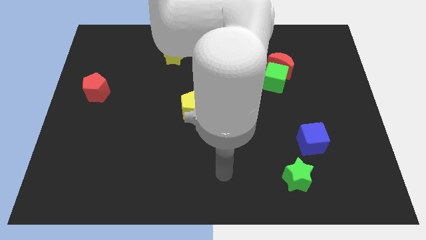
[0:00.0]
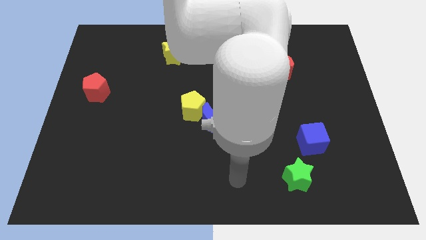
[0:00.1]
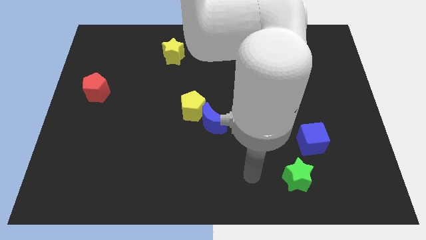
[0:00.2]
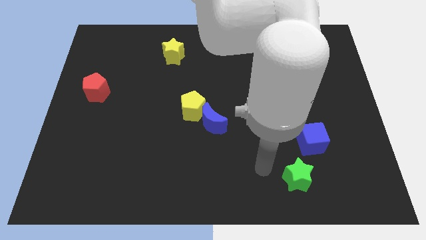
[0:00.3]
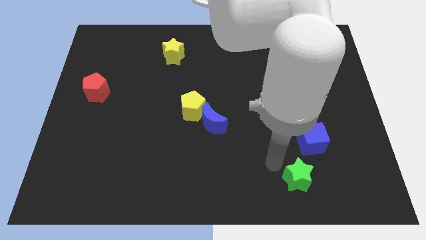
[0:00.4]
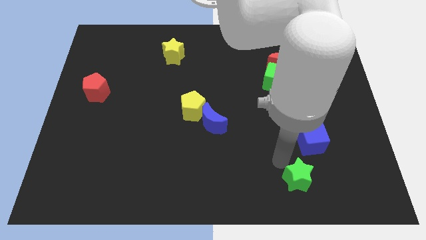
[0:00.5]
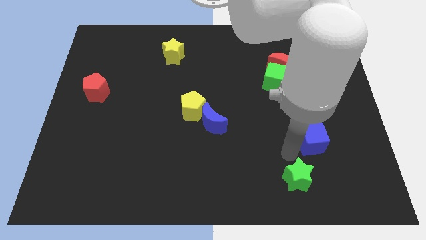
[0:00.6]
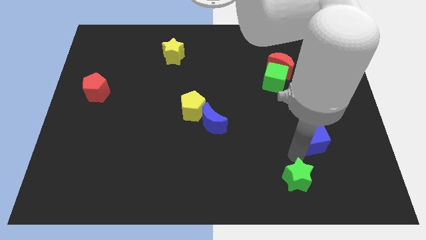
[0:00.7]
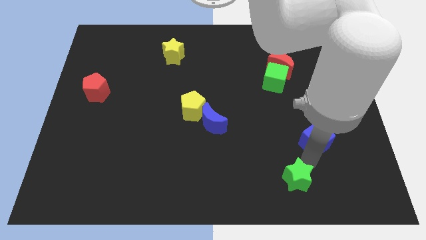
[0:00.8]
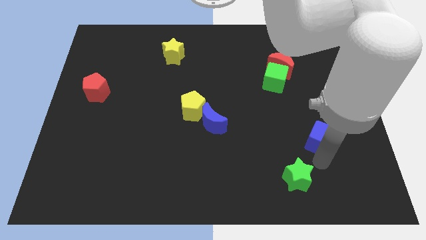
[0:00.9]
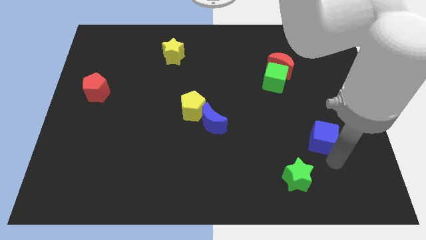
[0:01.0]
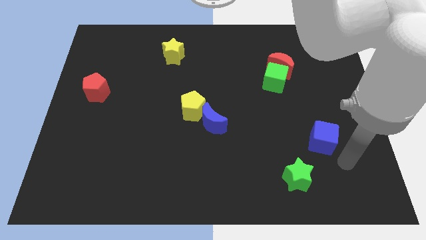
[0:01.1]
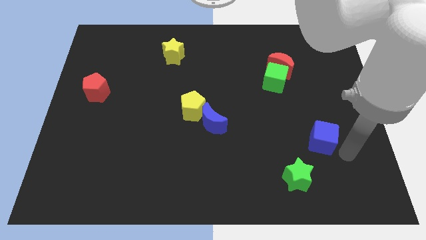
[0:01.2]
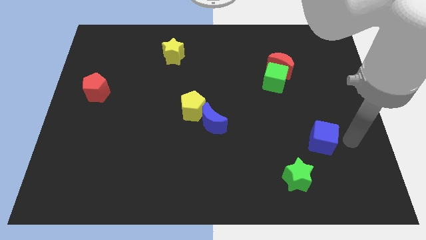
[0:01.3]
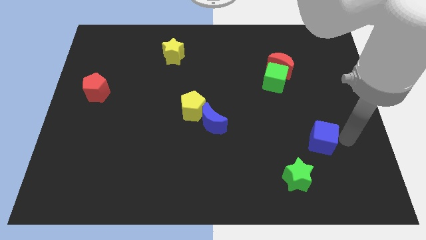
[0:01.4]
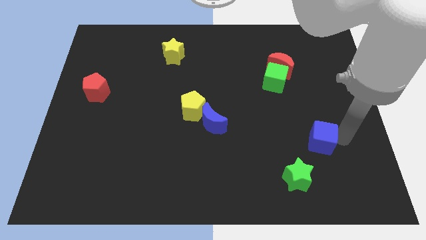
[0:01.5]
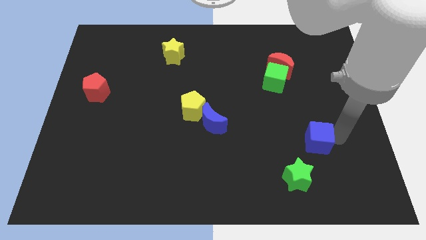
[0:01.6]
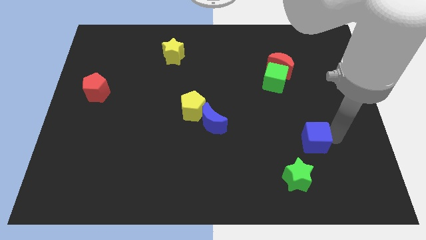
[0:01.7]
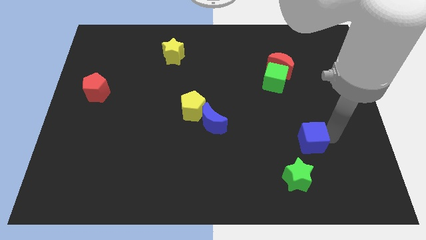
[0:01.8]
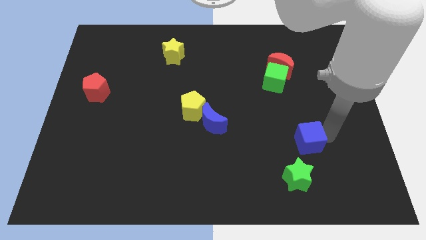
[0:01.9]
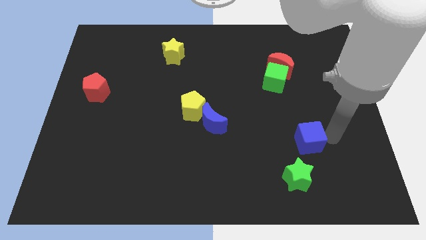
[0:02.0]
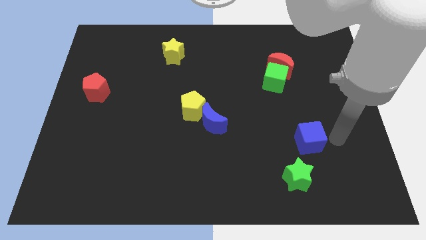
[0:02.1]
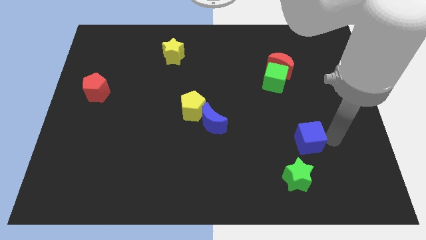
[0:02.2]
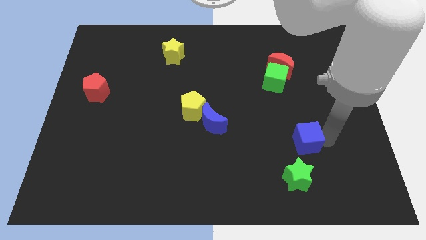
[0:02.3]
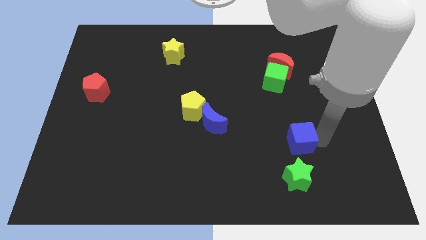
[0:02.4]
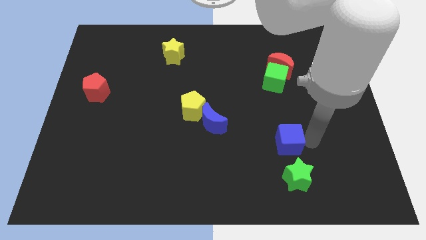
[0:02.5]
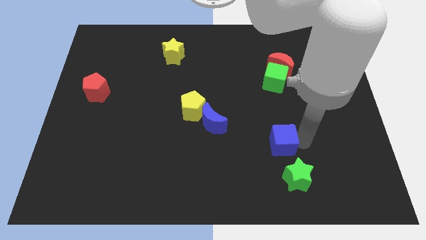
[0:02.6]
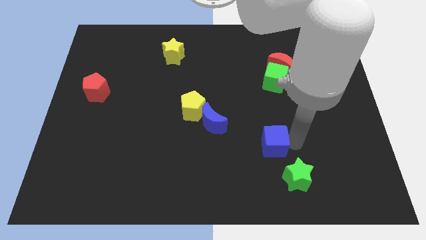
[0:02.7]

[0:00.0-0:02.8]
move the blue cube a bit to the left

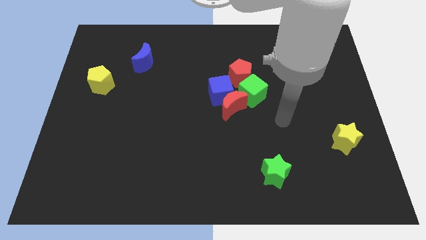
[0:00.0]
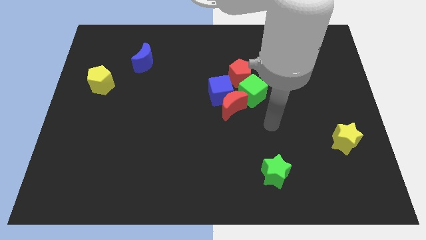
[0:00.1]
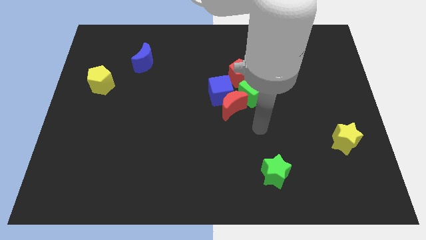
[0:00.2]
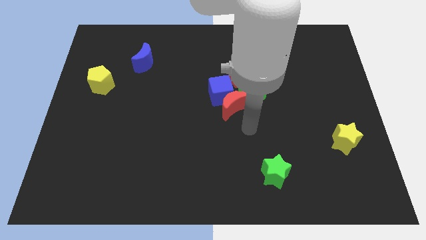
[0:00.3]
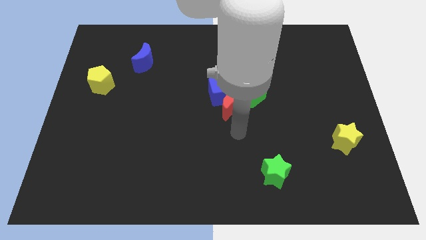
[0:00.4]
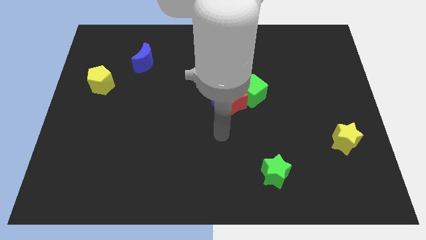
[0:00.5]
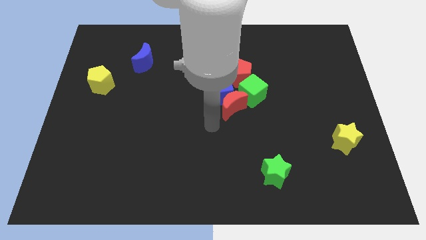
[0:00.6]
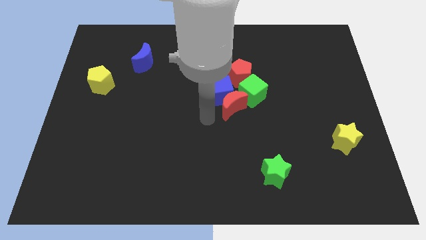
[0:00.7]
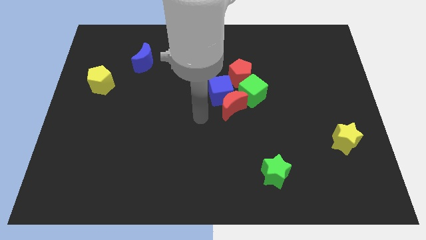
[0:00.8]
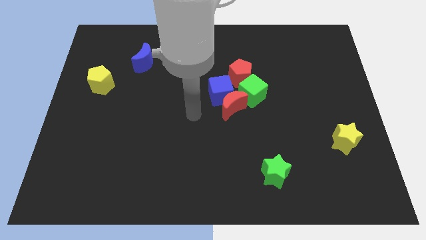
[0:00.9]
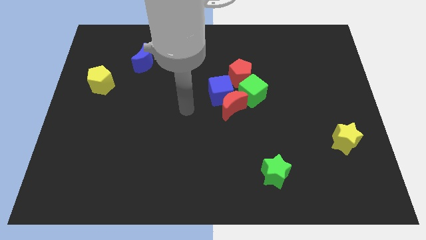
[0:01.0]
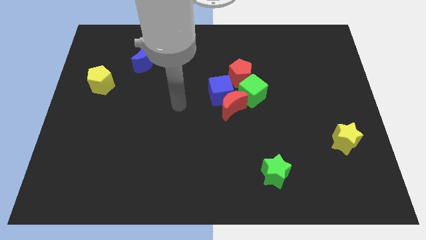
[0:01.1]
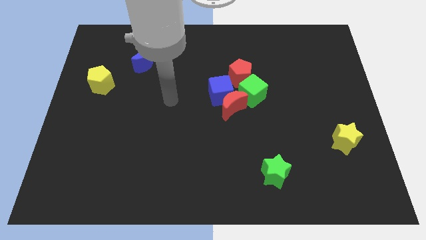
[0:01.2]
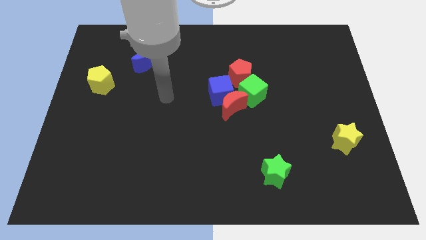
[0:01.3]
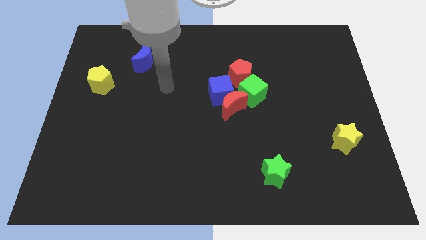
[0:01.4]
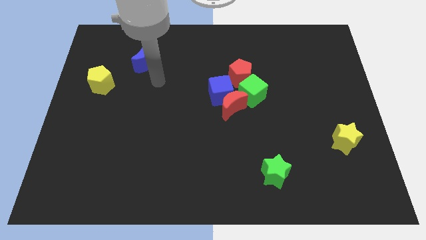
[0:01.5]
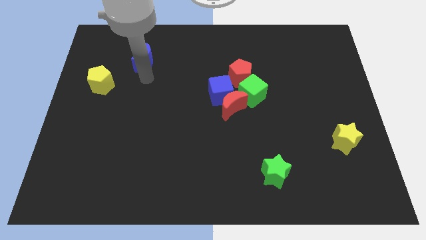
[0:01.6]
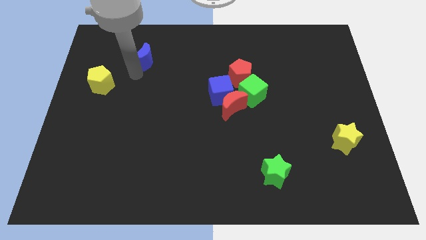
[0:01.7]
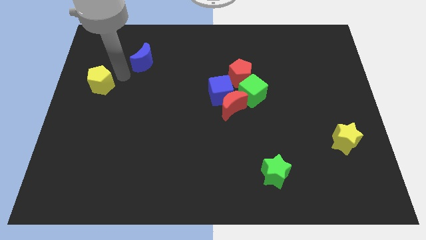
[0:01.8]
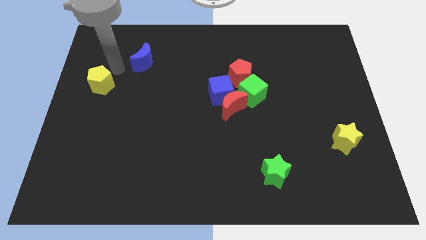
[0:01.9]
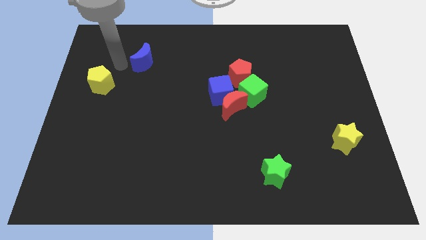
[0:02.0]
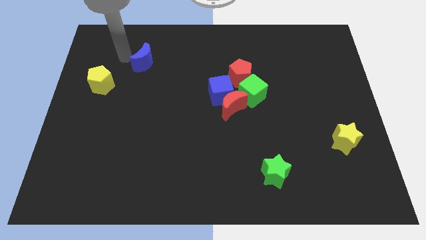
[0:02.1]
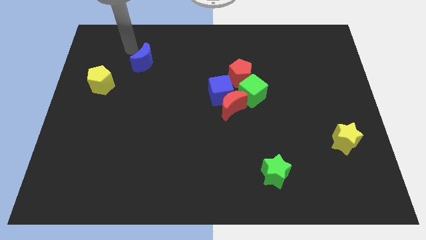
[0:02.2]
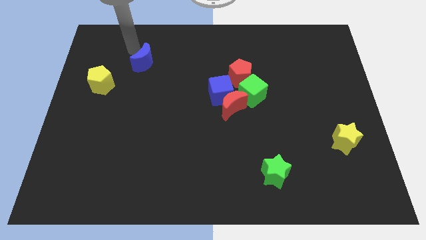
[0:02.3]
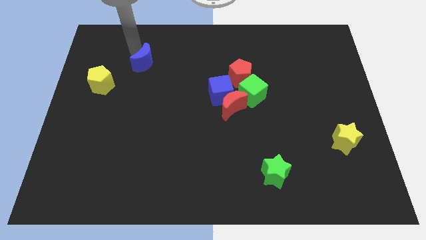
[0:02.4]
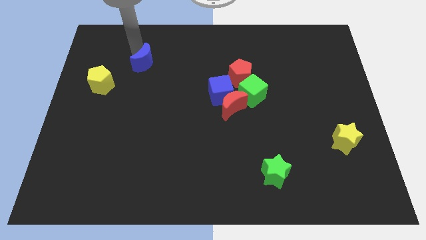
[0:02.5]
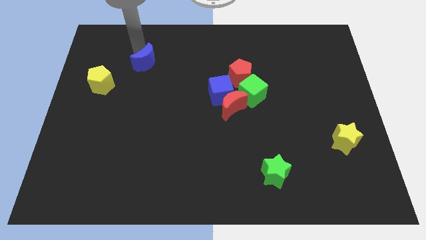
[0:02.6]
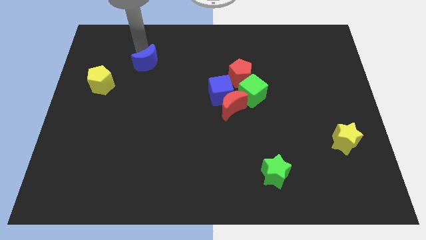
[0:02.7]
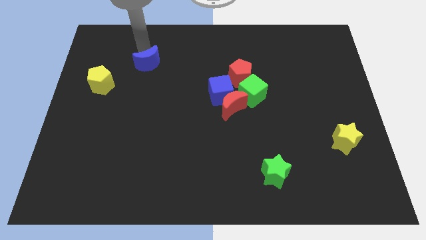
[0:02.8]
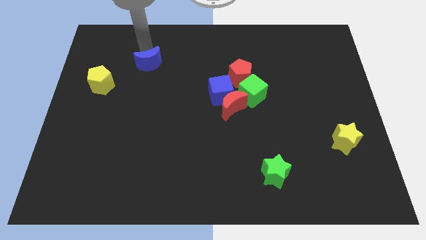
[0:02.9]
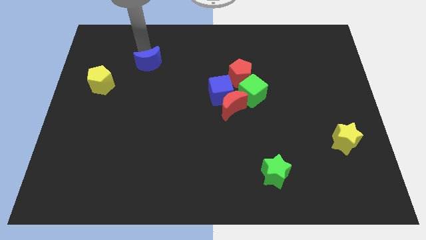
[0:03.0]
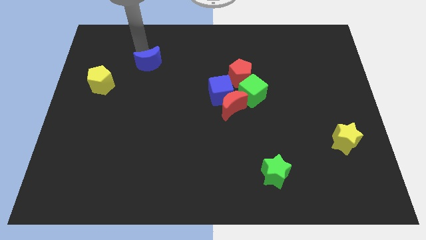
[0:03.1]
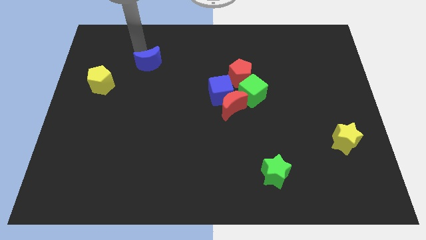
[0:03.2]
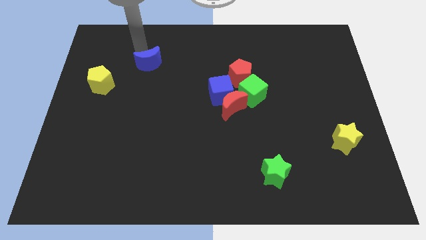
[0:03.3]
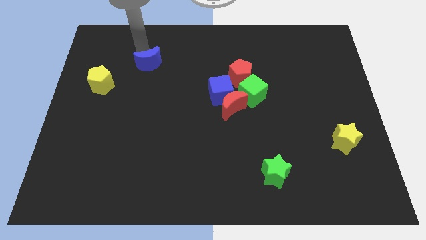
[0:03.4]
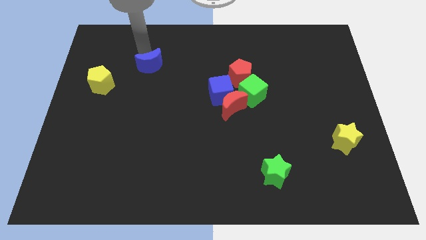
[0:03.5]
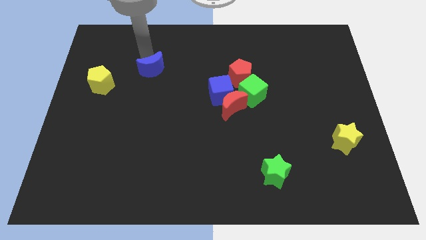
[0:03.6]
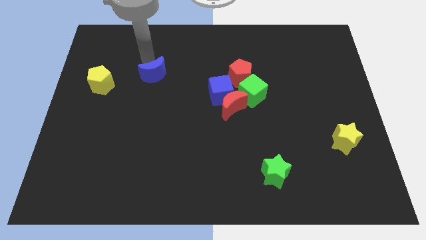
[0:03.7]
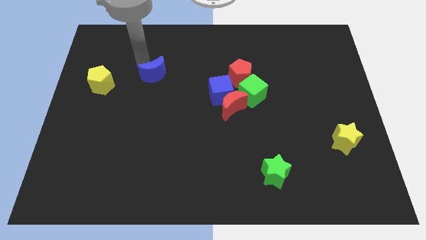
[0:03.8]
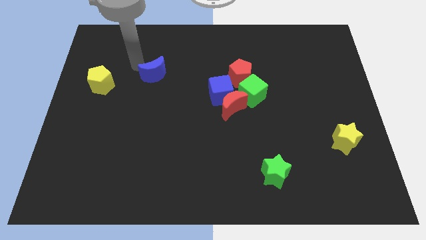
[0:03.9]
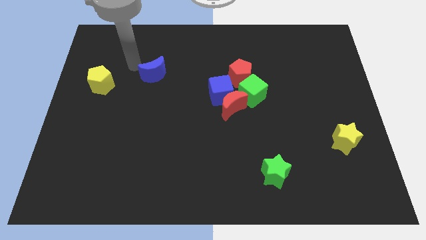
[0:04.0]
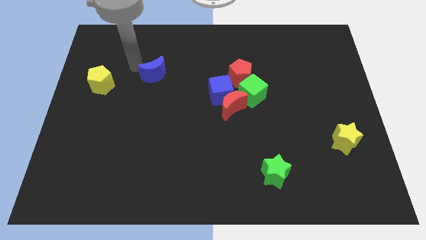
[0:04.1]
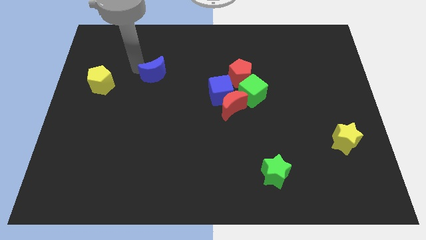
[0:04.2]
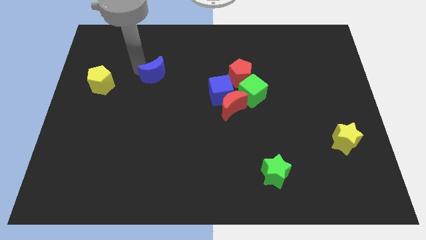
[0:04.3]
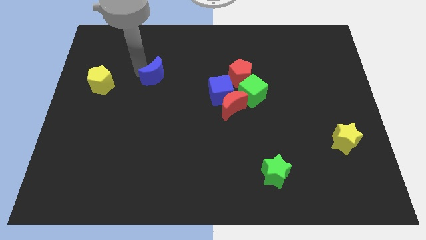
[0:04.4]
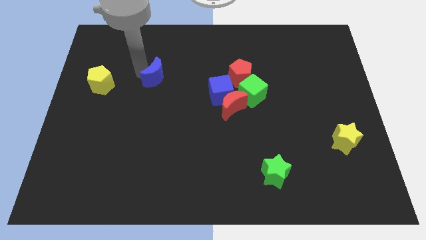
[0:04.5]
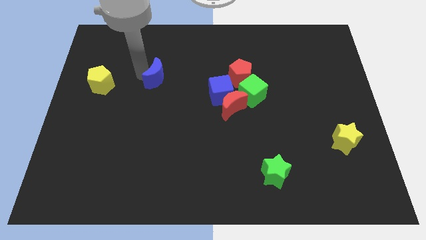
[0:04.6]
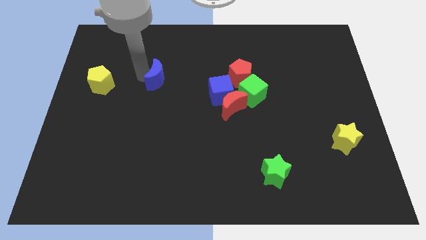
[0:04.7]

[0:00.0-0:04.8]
push the blue moon downwards and to the right a little

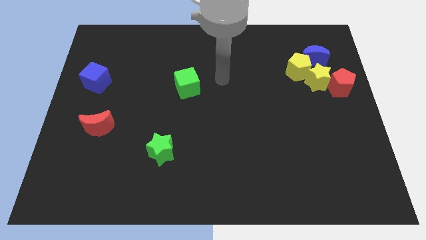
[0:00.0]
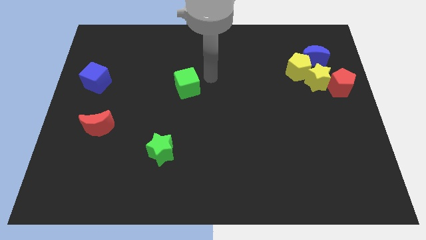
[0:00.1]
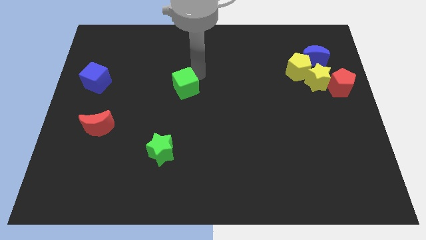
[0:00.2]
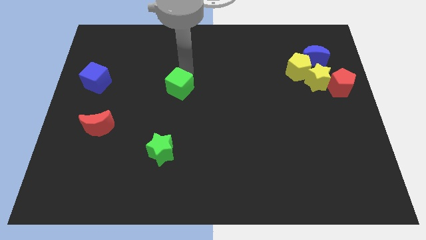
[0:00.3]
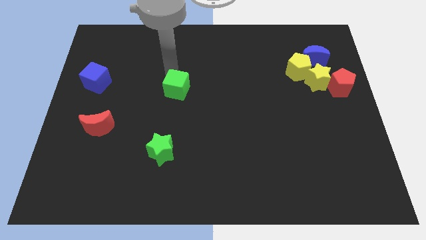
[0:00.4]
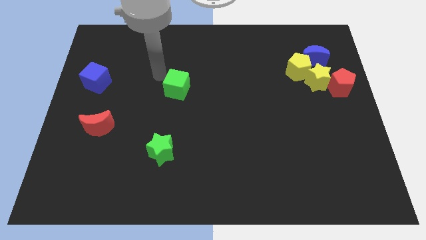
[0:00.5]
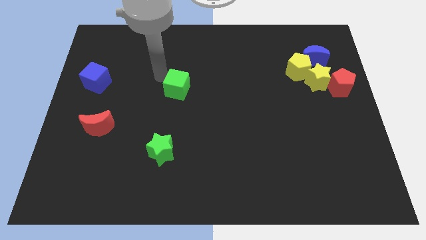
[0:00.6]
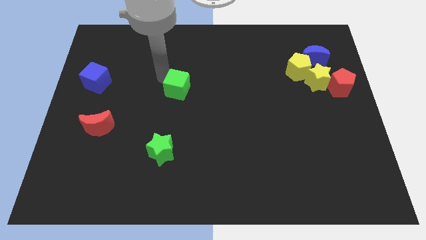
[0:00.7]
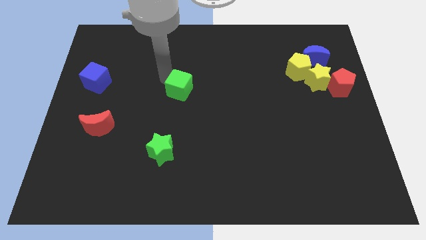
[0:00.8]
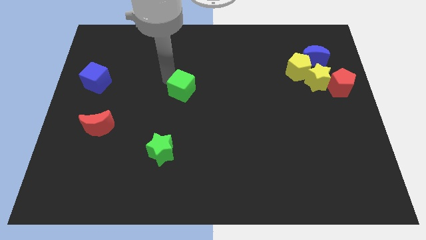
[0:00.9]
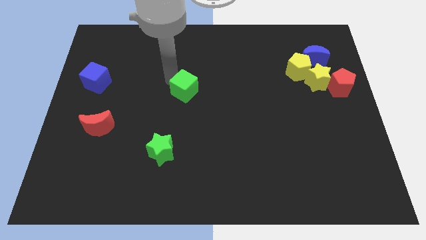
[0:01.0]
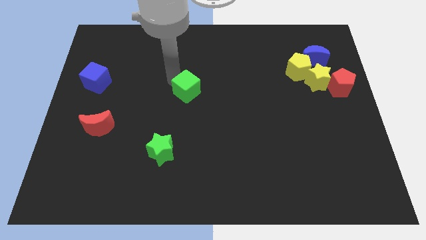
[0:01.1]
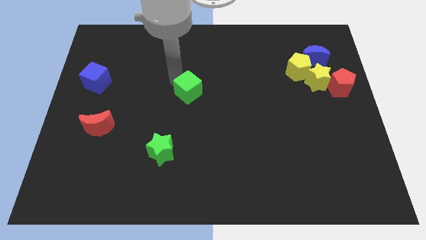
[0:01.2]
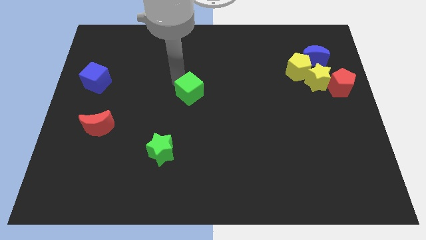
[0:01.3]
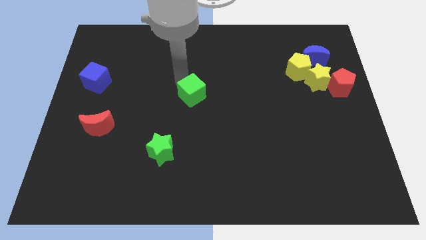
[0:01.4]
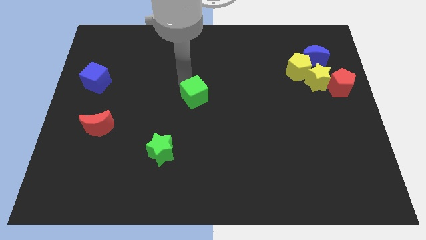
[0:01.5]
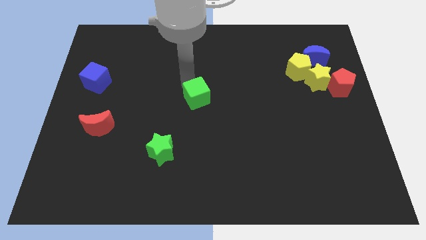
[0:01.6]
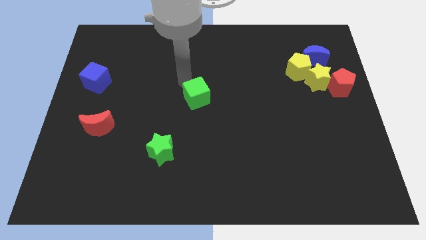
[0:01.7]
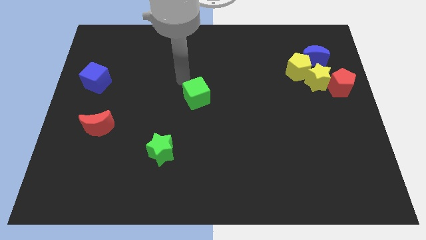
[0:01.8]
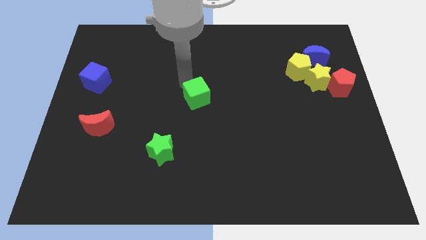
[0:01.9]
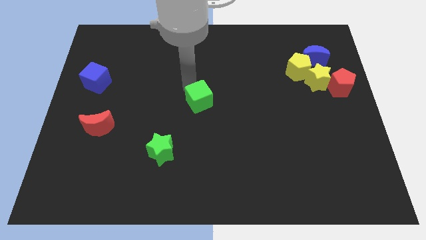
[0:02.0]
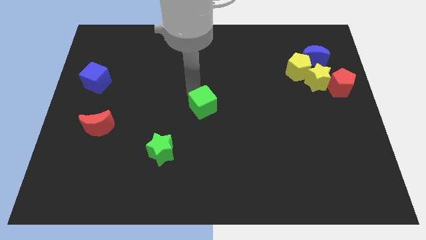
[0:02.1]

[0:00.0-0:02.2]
move the green cube diagonally downwards and right a little
